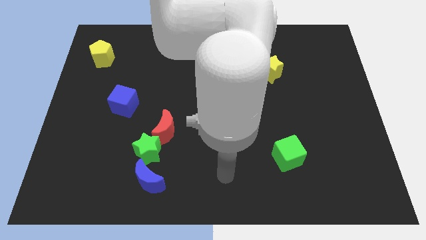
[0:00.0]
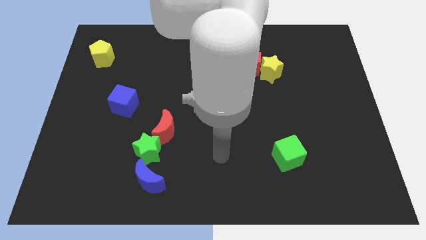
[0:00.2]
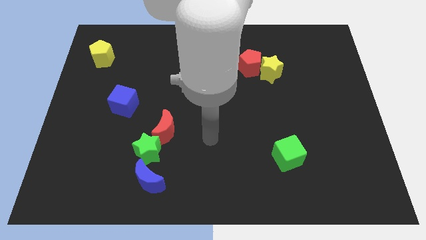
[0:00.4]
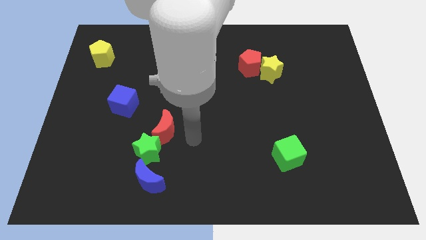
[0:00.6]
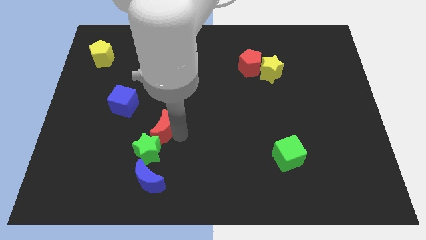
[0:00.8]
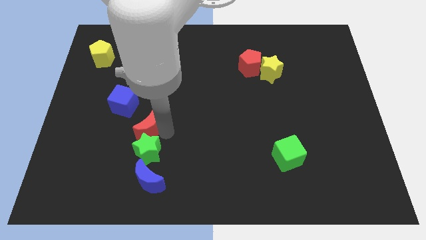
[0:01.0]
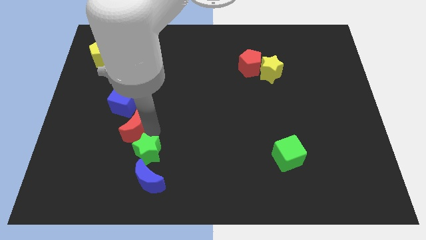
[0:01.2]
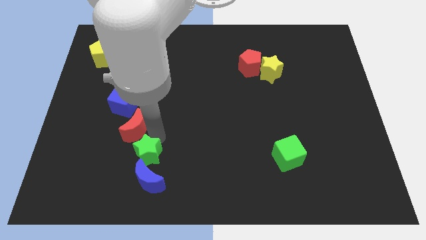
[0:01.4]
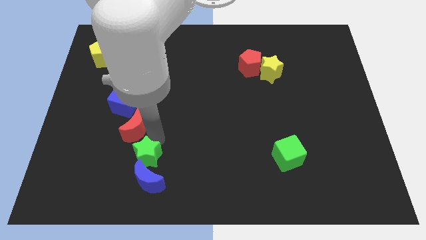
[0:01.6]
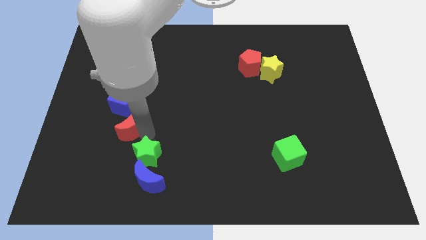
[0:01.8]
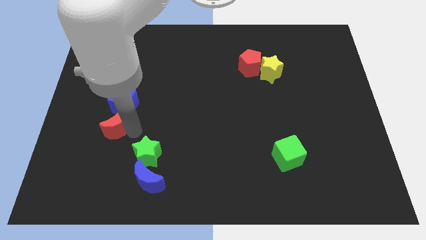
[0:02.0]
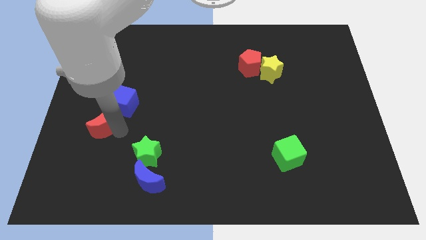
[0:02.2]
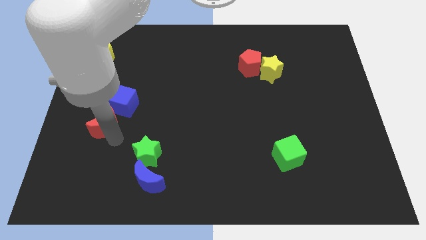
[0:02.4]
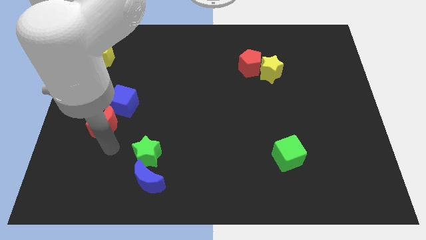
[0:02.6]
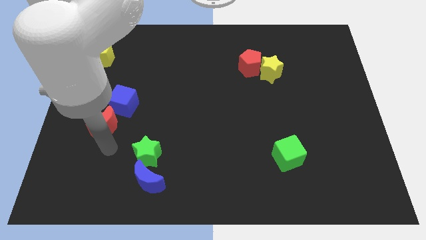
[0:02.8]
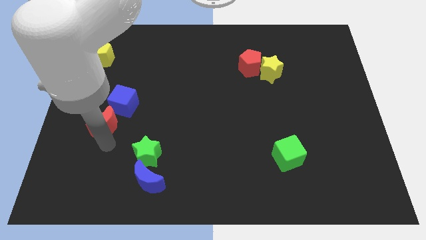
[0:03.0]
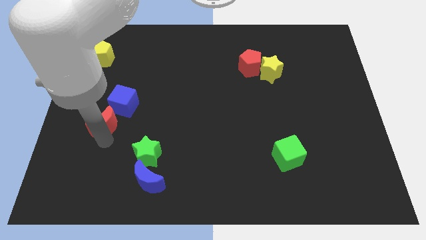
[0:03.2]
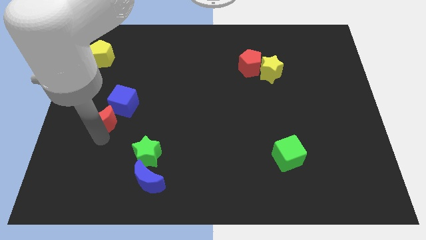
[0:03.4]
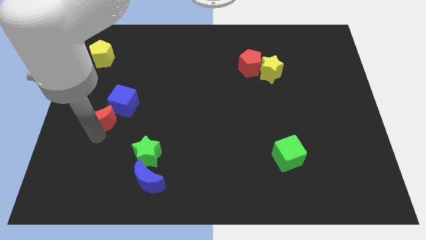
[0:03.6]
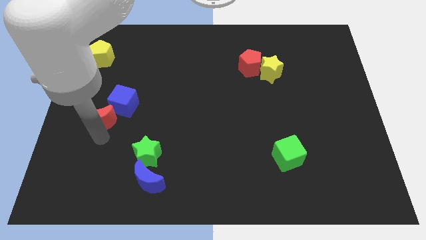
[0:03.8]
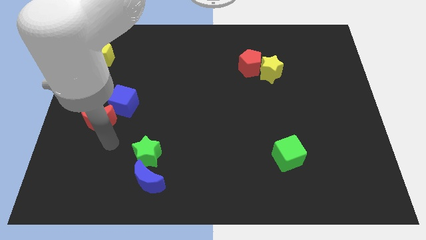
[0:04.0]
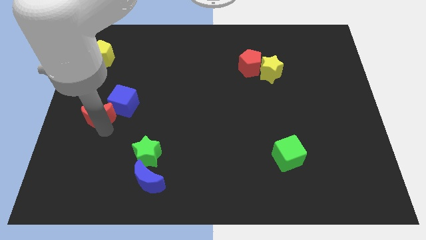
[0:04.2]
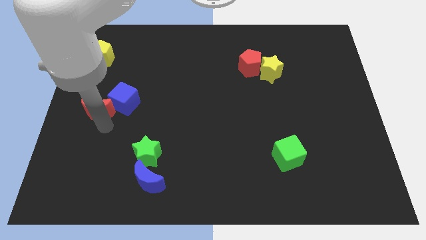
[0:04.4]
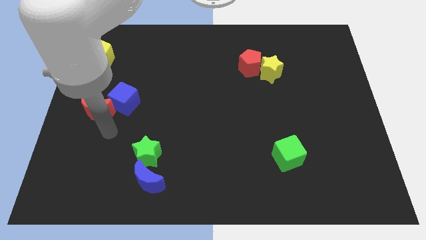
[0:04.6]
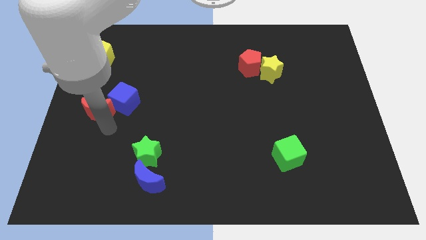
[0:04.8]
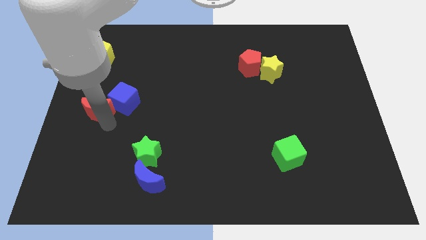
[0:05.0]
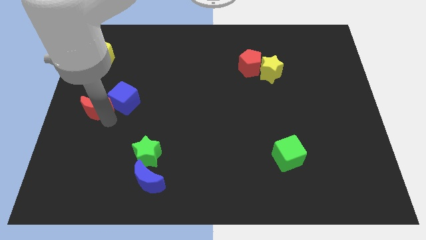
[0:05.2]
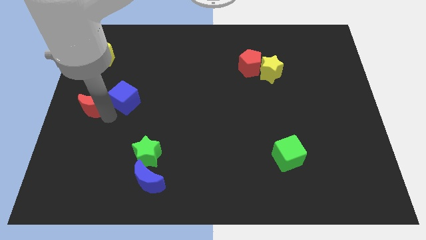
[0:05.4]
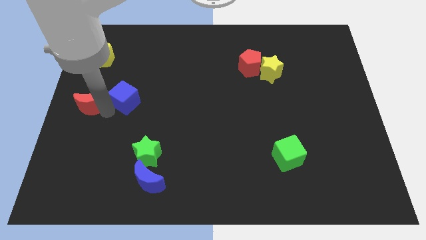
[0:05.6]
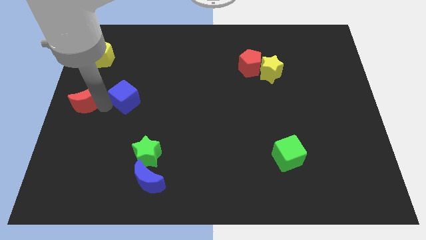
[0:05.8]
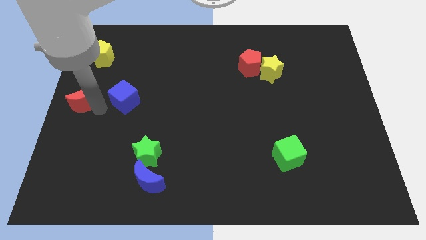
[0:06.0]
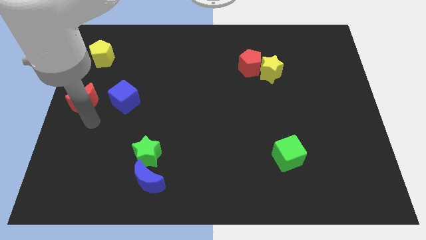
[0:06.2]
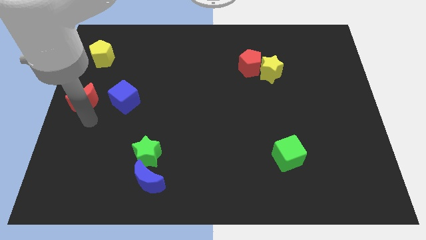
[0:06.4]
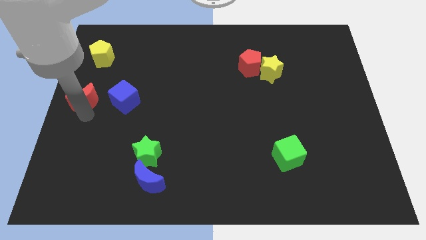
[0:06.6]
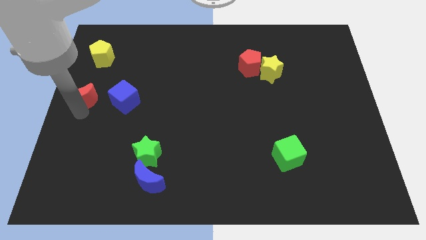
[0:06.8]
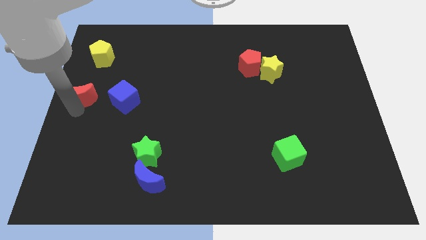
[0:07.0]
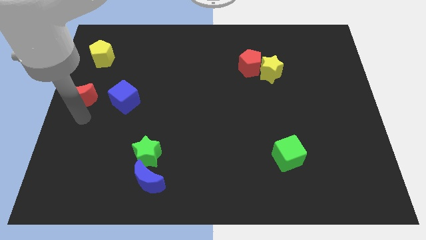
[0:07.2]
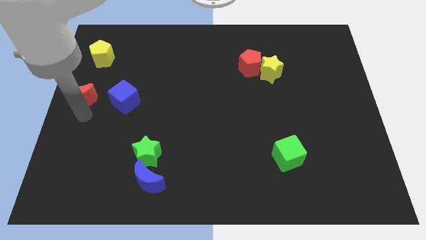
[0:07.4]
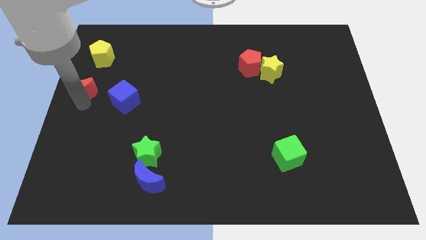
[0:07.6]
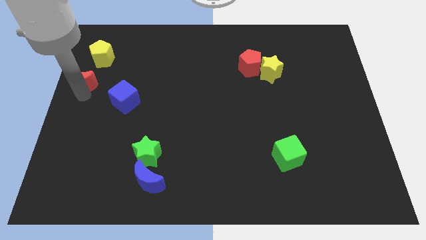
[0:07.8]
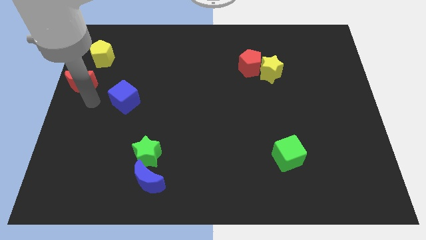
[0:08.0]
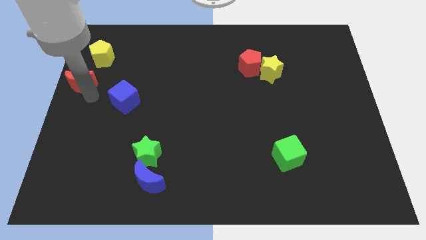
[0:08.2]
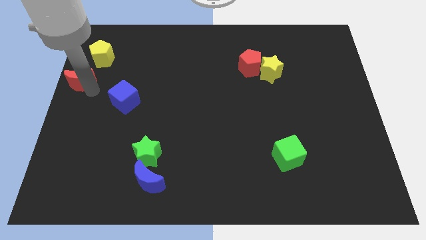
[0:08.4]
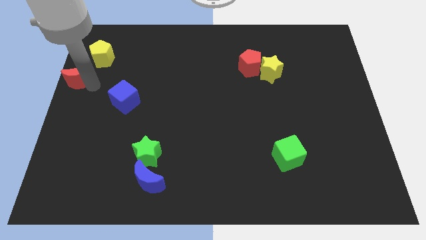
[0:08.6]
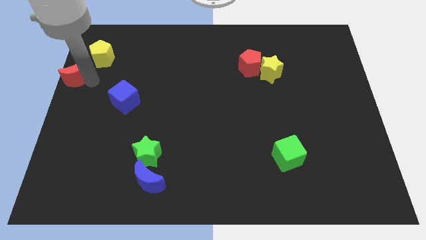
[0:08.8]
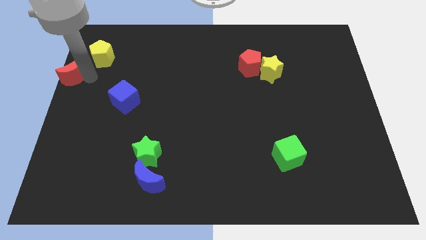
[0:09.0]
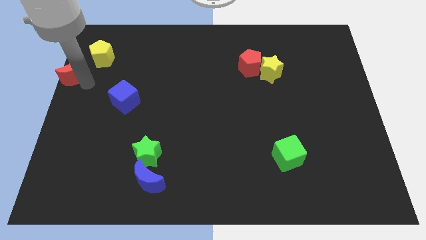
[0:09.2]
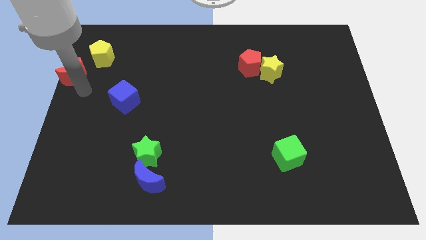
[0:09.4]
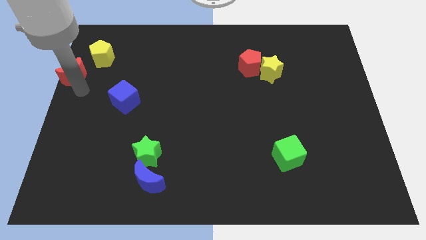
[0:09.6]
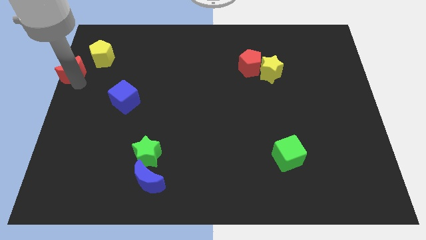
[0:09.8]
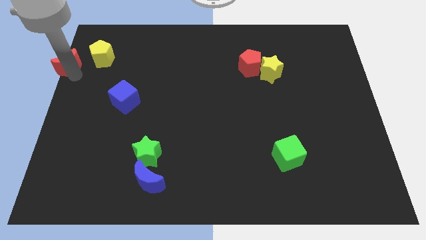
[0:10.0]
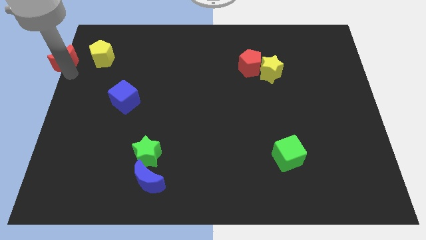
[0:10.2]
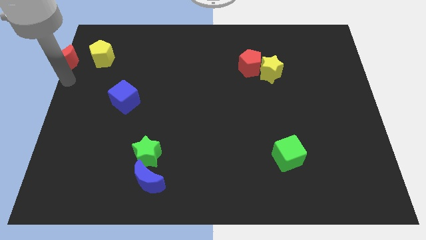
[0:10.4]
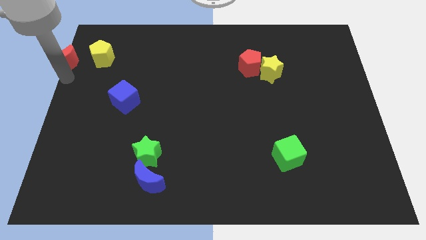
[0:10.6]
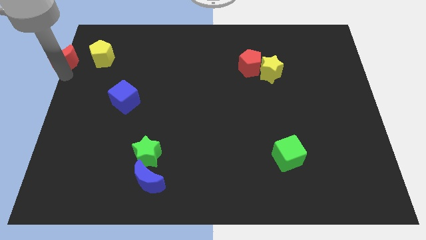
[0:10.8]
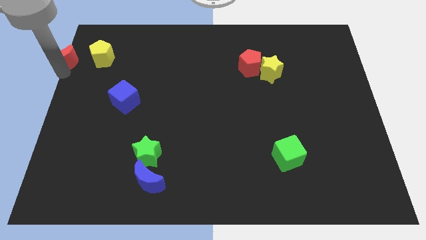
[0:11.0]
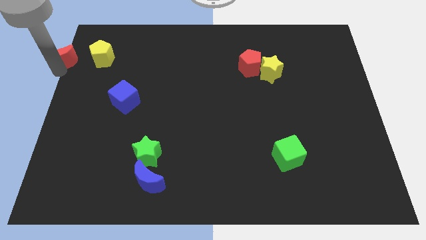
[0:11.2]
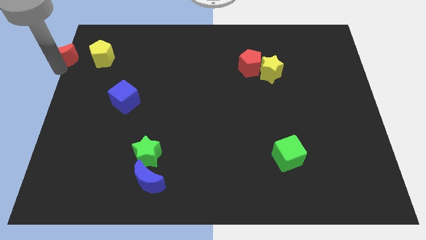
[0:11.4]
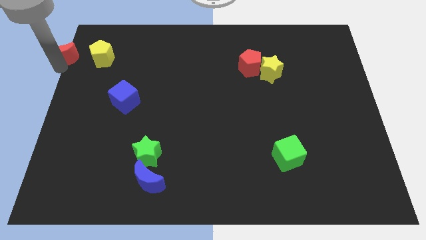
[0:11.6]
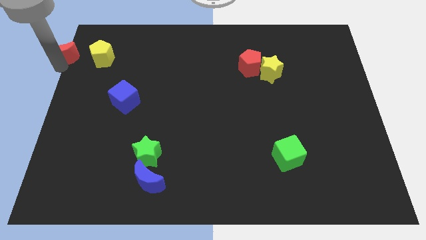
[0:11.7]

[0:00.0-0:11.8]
put the red moon to the top left corner
